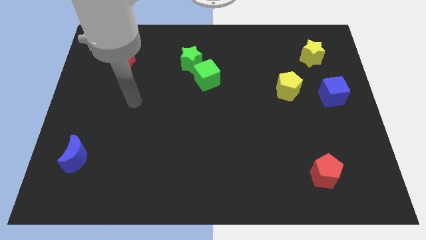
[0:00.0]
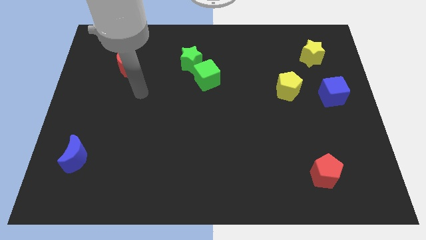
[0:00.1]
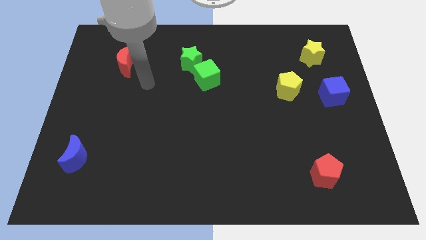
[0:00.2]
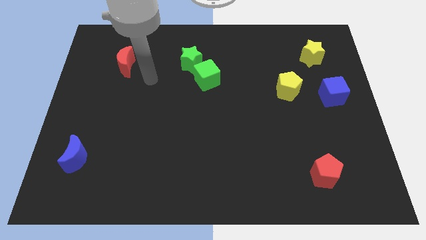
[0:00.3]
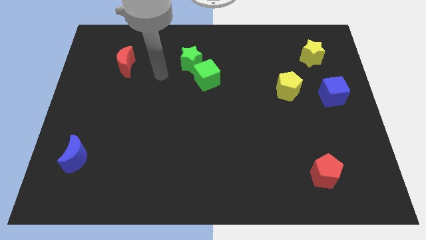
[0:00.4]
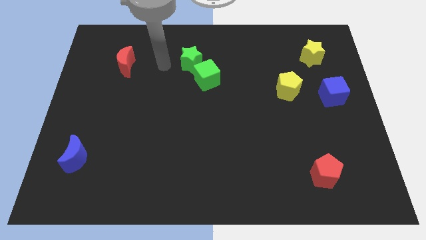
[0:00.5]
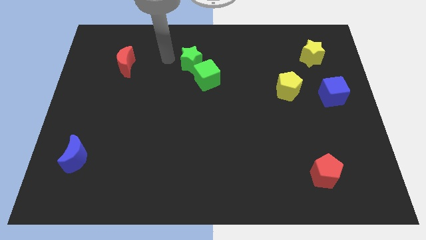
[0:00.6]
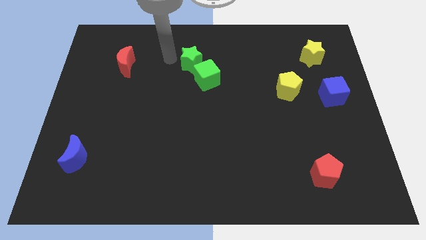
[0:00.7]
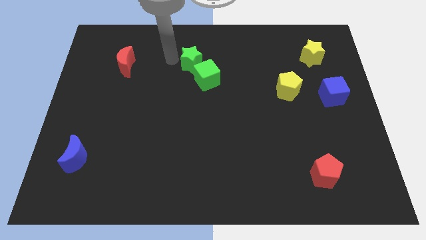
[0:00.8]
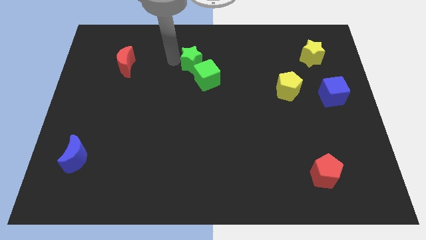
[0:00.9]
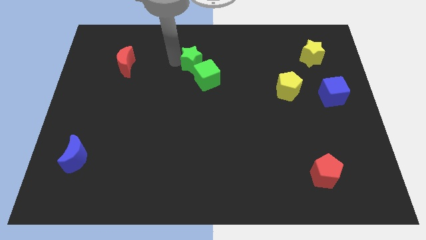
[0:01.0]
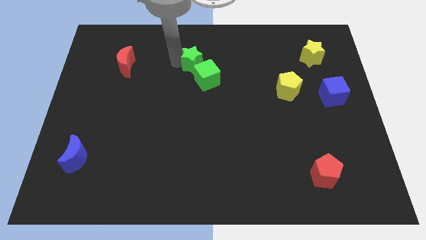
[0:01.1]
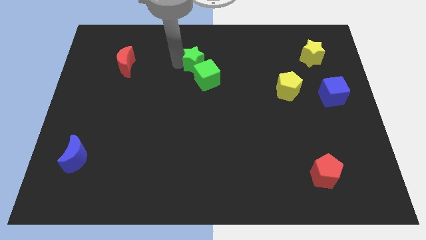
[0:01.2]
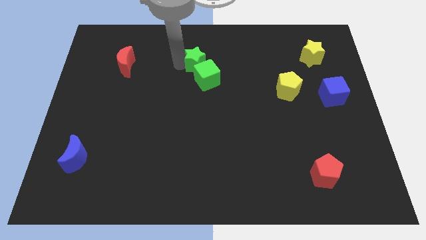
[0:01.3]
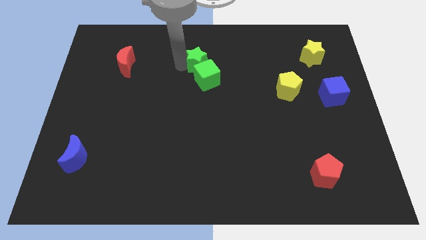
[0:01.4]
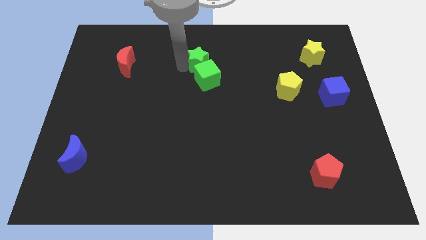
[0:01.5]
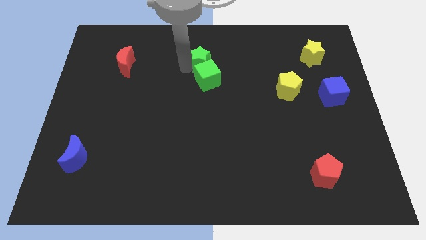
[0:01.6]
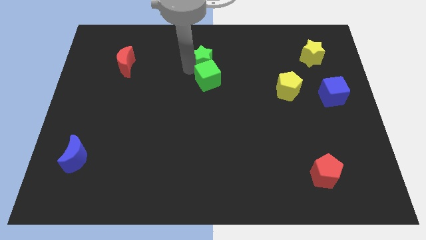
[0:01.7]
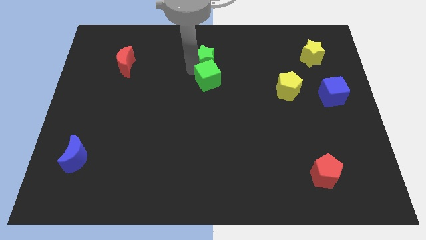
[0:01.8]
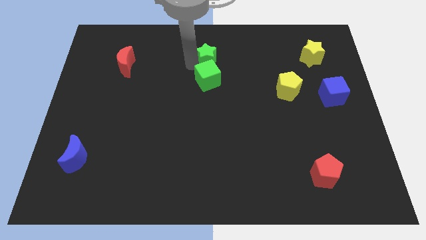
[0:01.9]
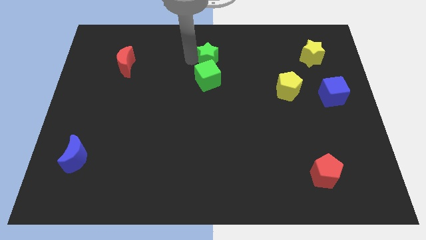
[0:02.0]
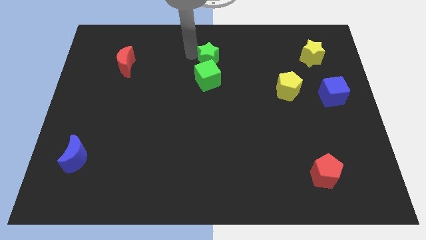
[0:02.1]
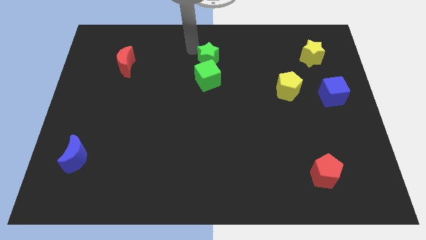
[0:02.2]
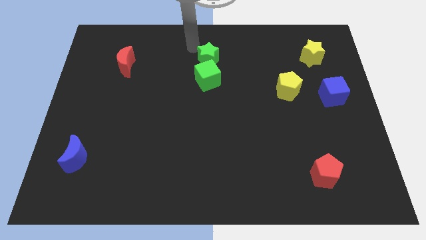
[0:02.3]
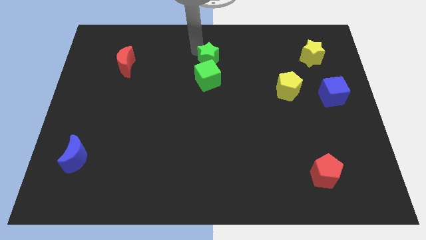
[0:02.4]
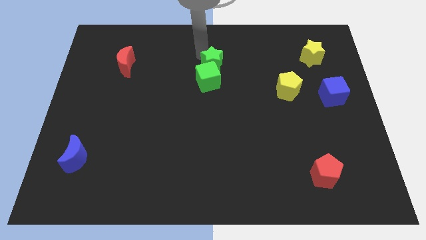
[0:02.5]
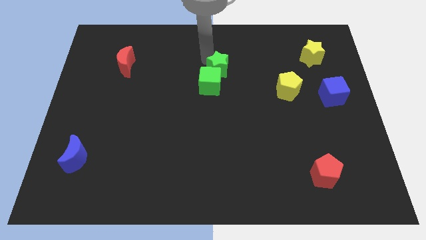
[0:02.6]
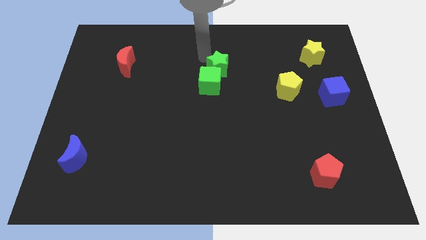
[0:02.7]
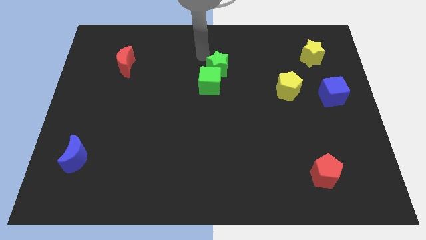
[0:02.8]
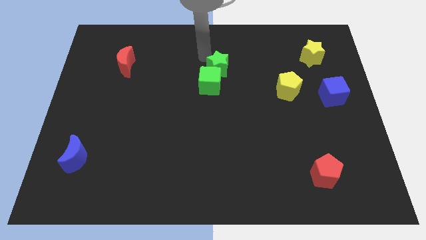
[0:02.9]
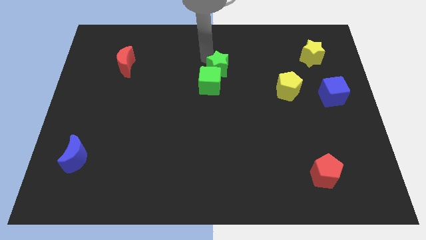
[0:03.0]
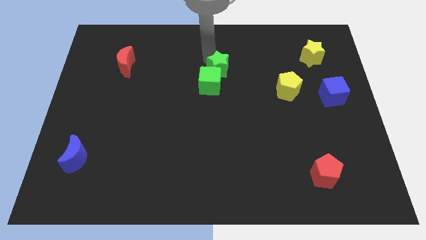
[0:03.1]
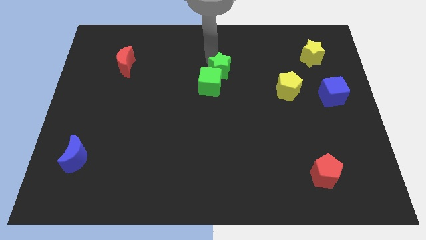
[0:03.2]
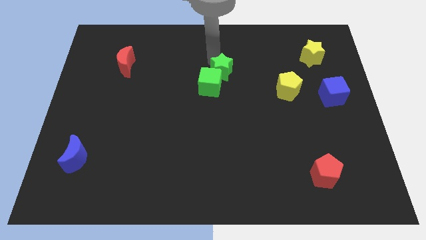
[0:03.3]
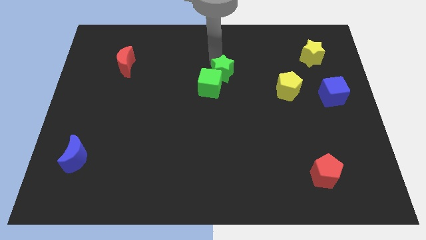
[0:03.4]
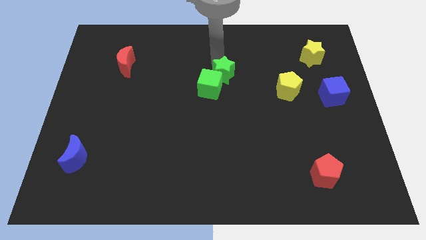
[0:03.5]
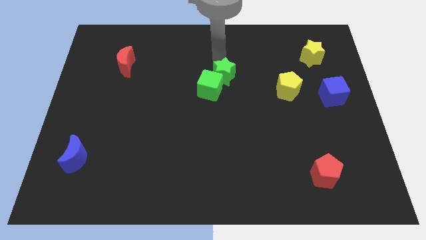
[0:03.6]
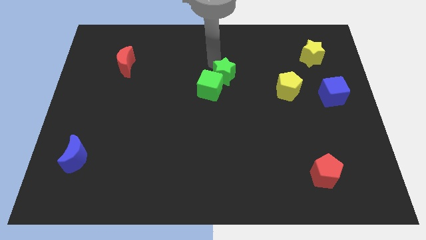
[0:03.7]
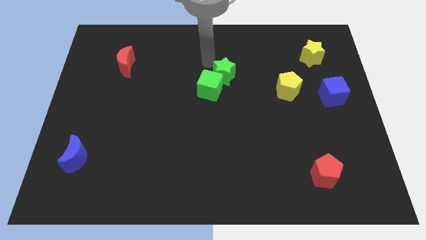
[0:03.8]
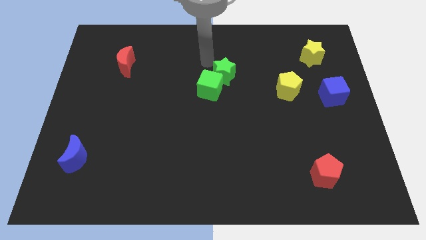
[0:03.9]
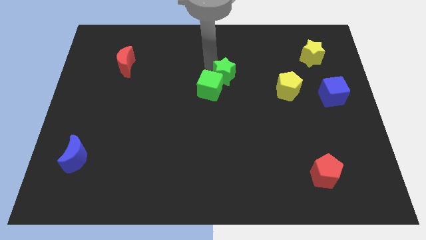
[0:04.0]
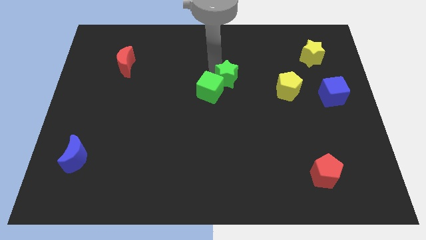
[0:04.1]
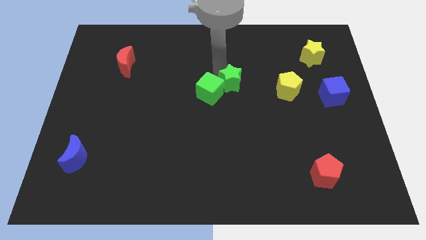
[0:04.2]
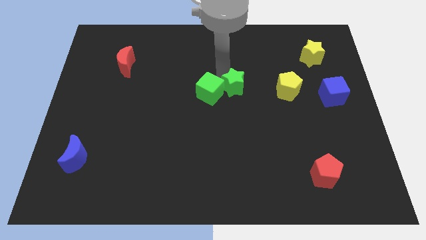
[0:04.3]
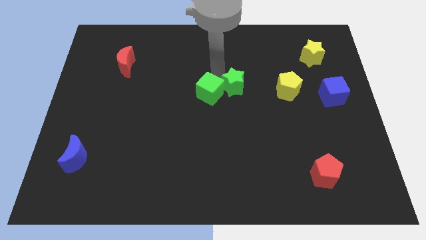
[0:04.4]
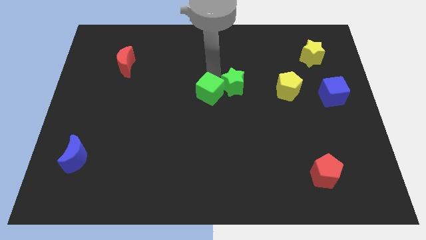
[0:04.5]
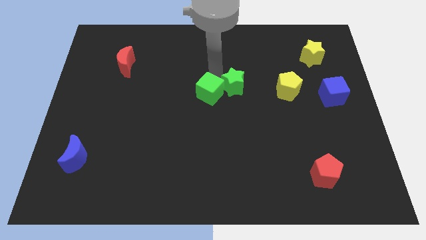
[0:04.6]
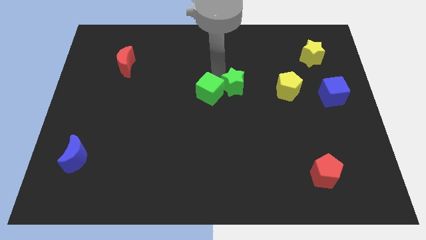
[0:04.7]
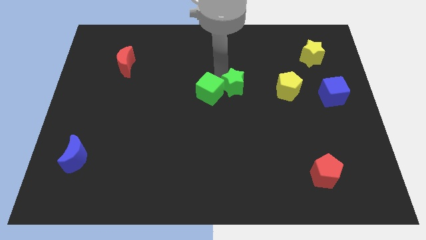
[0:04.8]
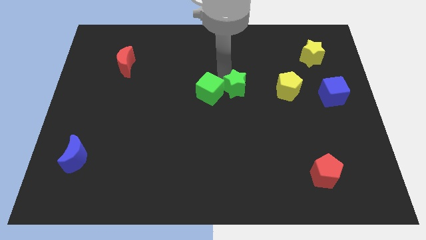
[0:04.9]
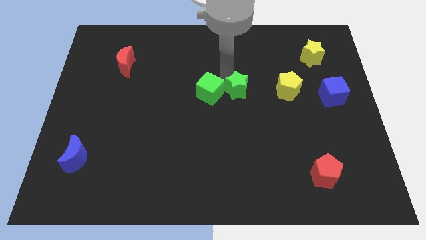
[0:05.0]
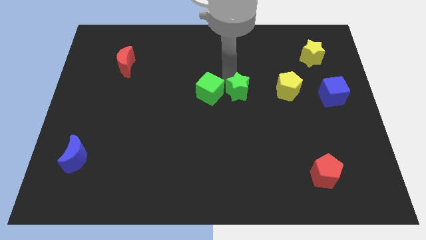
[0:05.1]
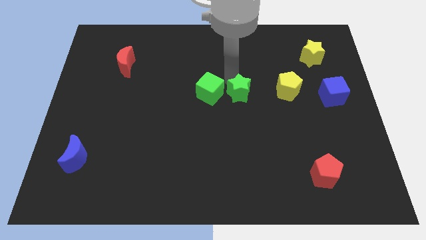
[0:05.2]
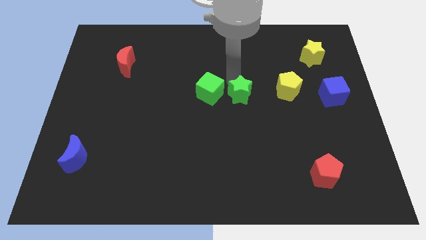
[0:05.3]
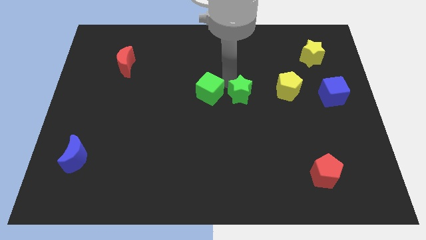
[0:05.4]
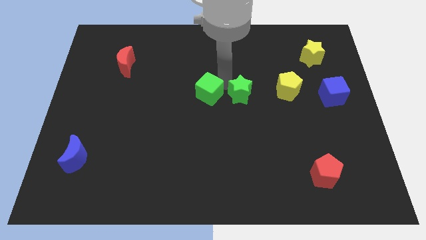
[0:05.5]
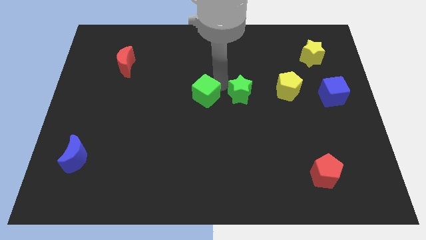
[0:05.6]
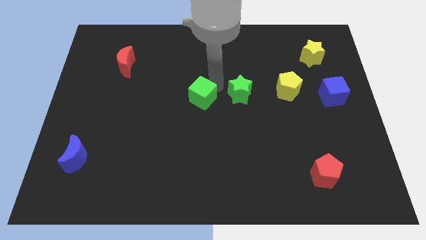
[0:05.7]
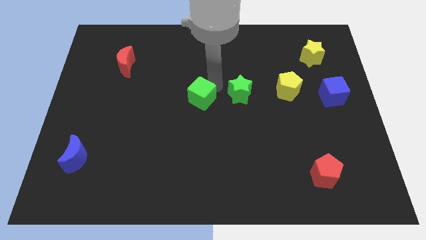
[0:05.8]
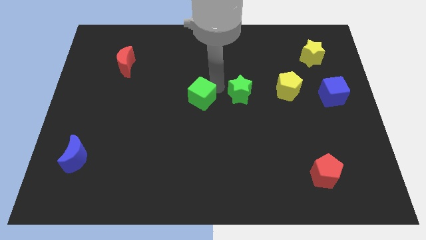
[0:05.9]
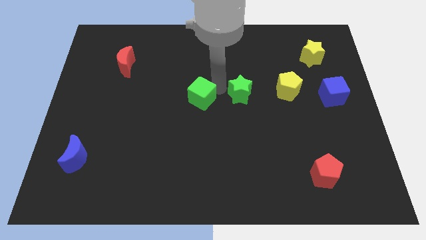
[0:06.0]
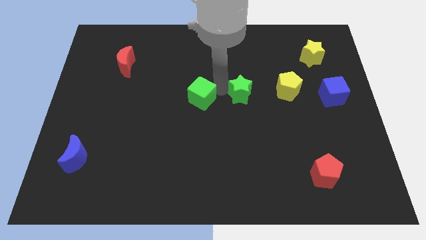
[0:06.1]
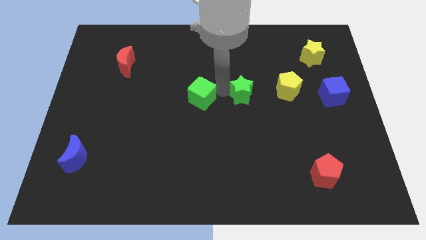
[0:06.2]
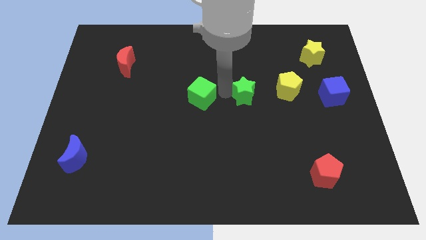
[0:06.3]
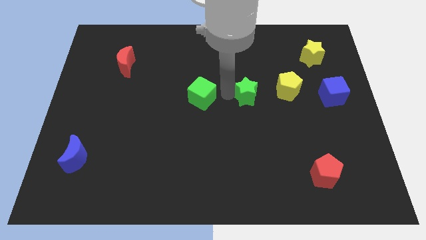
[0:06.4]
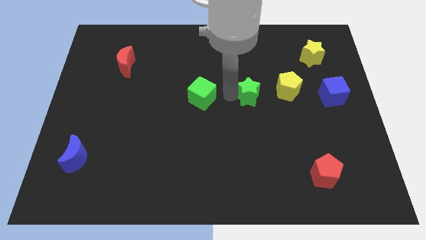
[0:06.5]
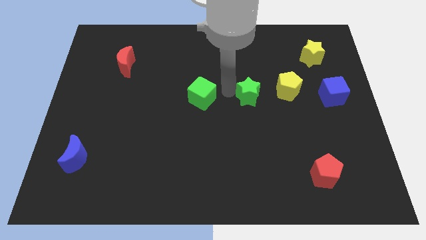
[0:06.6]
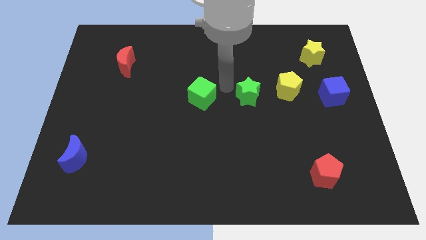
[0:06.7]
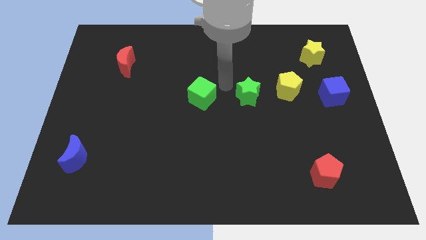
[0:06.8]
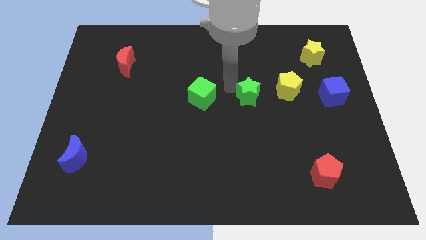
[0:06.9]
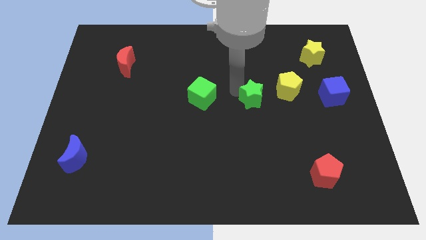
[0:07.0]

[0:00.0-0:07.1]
push the green star to the bottom left of the yellow pentagon
